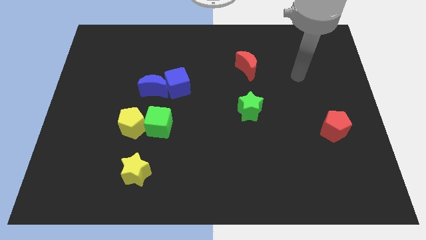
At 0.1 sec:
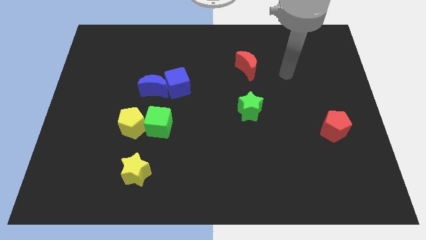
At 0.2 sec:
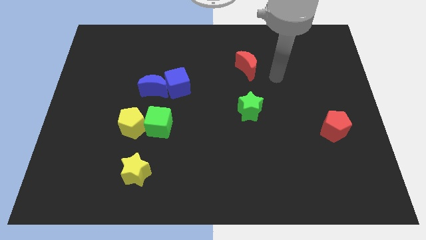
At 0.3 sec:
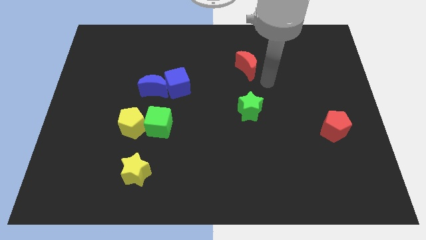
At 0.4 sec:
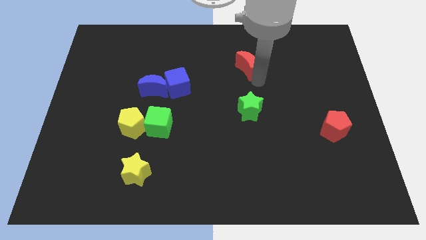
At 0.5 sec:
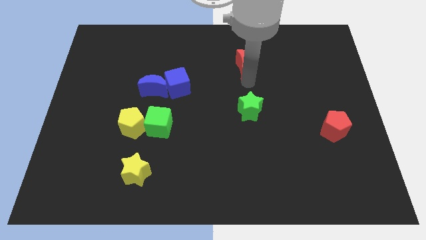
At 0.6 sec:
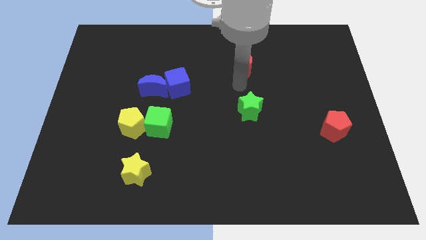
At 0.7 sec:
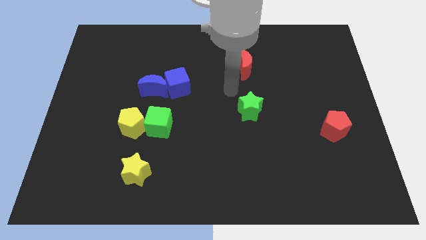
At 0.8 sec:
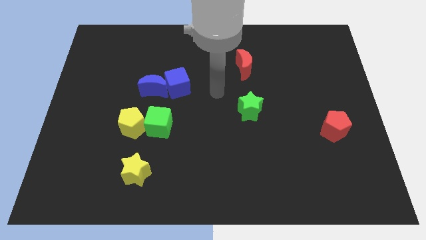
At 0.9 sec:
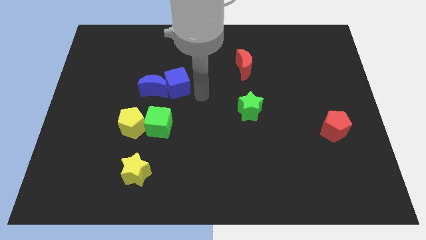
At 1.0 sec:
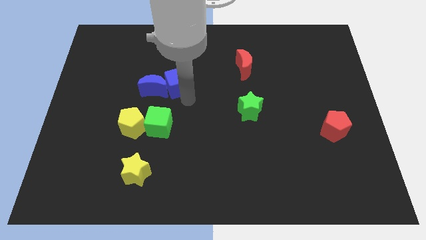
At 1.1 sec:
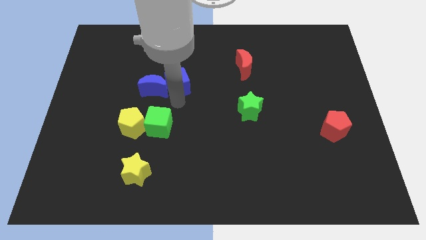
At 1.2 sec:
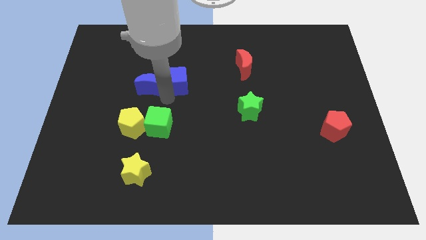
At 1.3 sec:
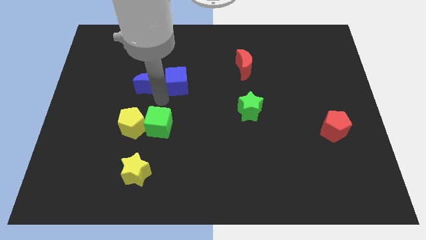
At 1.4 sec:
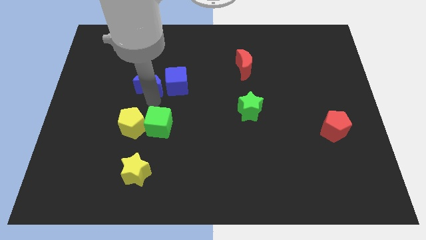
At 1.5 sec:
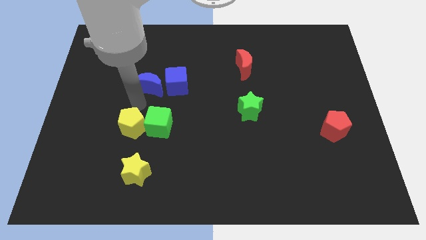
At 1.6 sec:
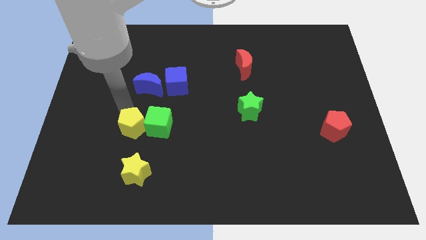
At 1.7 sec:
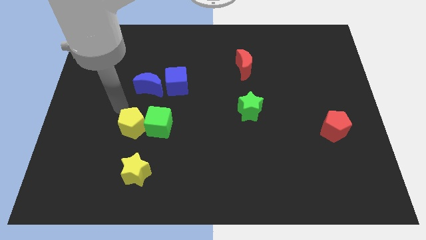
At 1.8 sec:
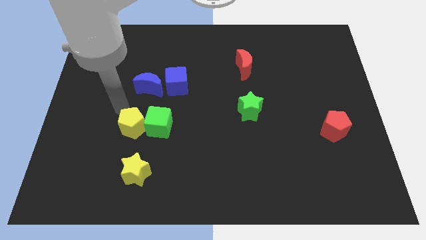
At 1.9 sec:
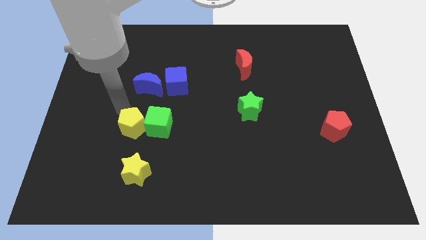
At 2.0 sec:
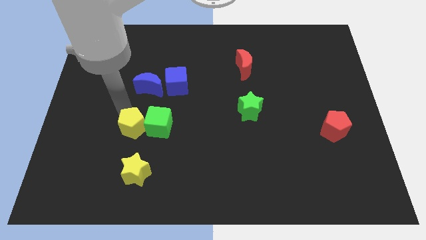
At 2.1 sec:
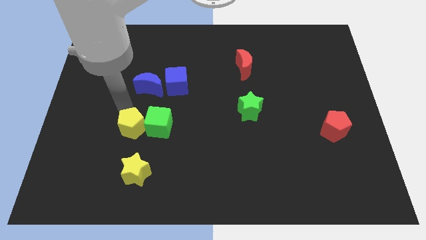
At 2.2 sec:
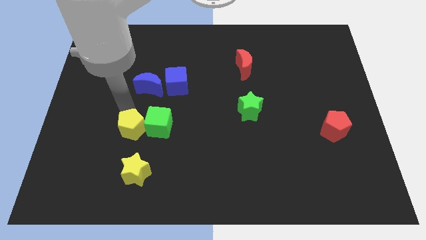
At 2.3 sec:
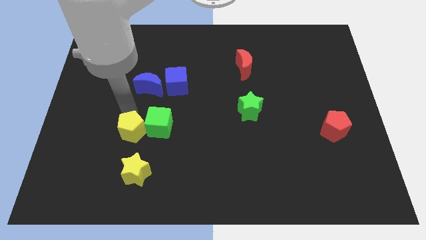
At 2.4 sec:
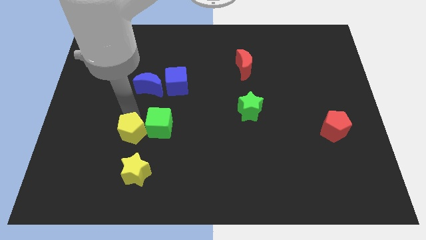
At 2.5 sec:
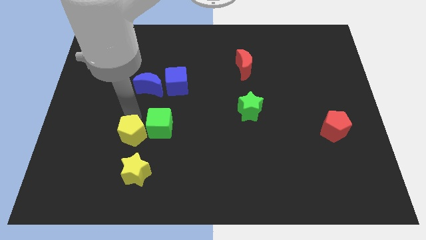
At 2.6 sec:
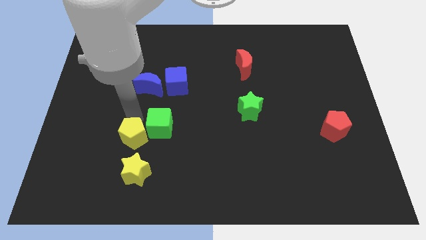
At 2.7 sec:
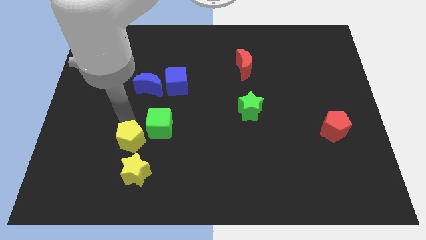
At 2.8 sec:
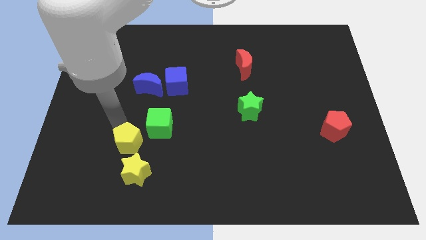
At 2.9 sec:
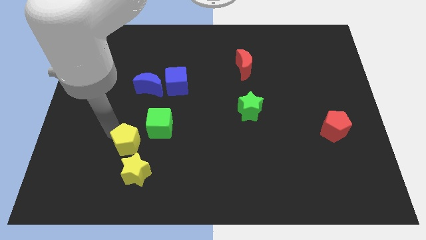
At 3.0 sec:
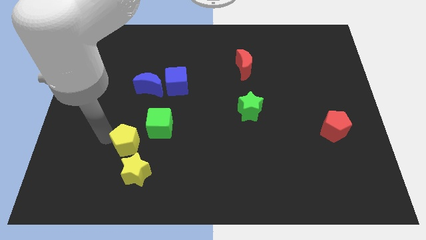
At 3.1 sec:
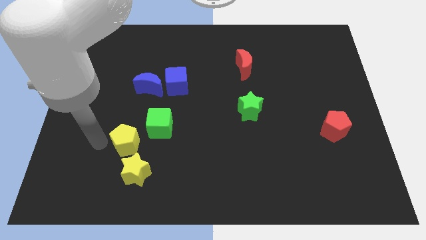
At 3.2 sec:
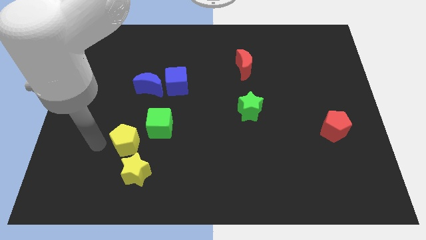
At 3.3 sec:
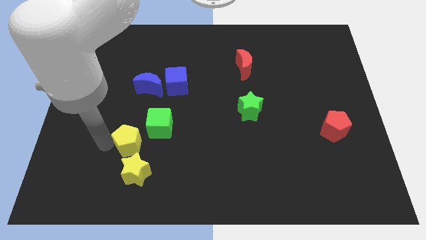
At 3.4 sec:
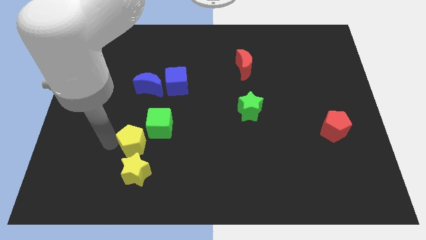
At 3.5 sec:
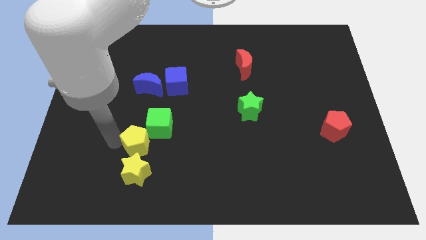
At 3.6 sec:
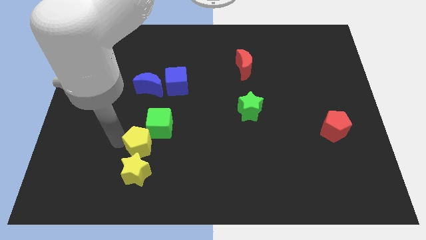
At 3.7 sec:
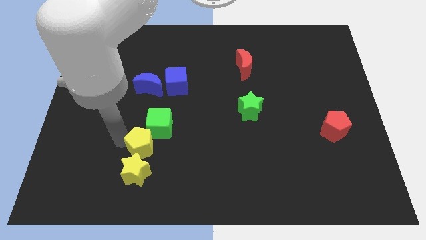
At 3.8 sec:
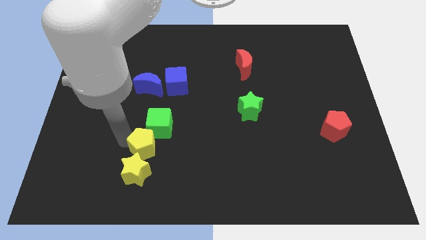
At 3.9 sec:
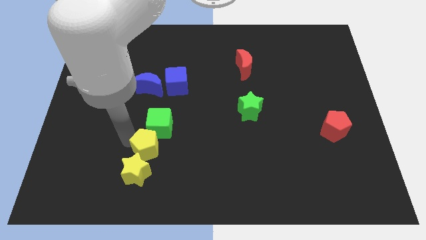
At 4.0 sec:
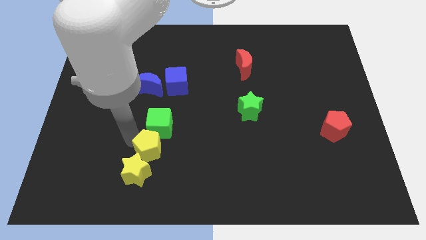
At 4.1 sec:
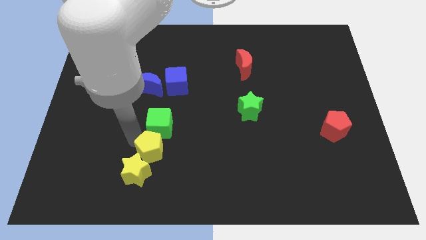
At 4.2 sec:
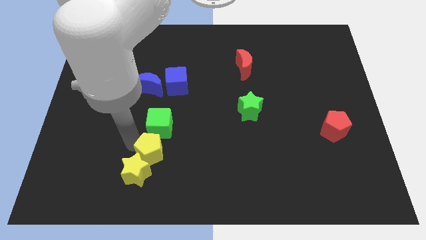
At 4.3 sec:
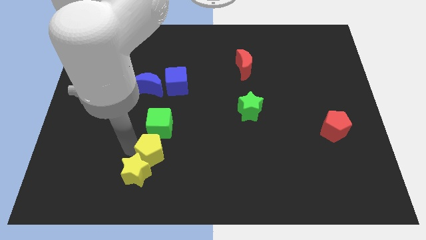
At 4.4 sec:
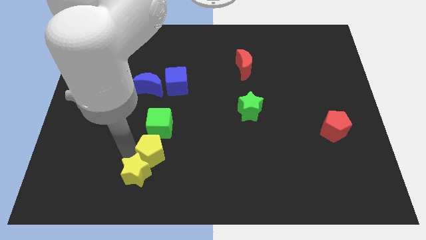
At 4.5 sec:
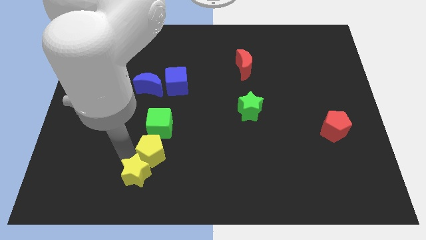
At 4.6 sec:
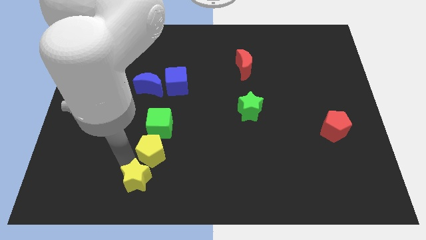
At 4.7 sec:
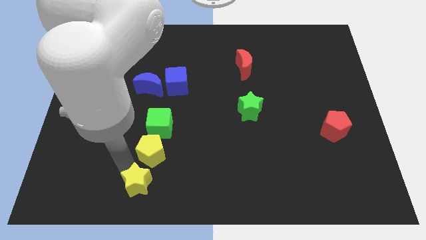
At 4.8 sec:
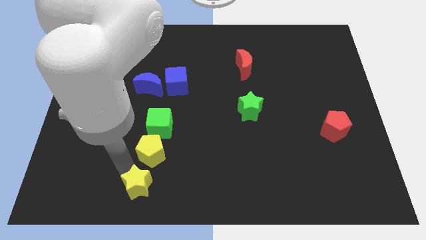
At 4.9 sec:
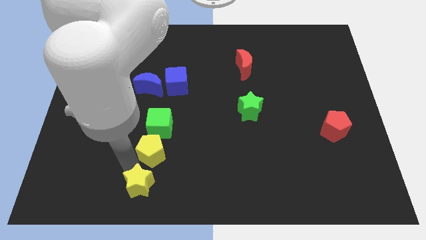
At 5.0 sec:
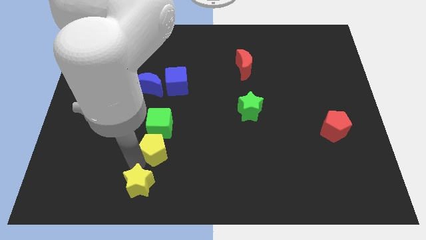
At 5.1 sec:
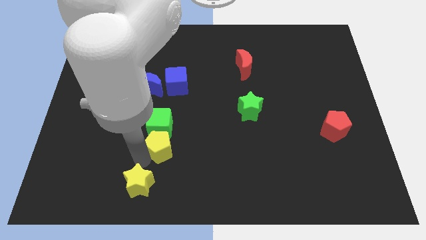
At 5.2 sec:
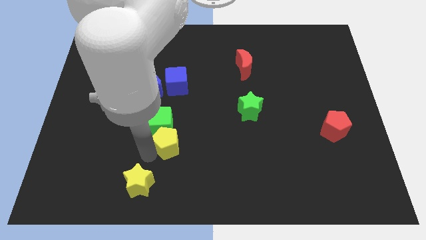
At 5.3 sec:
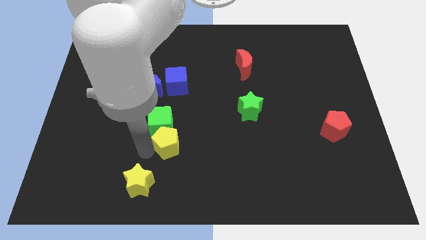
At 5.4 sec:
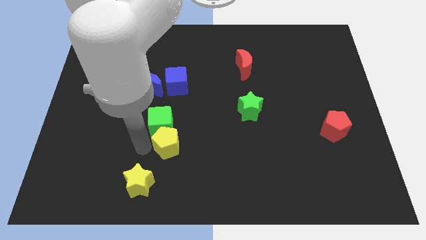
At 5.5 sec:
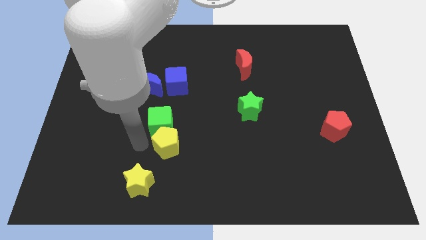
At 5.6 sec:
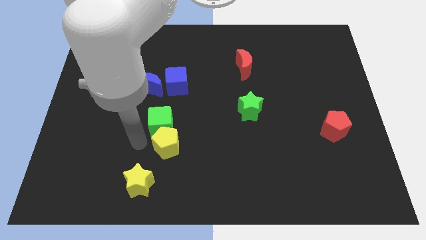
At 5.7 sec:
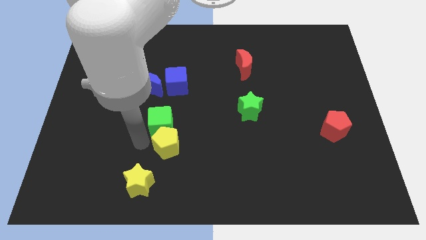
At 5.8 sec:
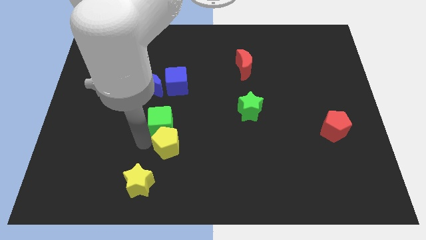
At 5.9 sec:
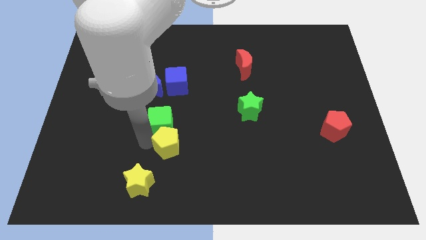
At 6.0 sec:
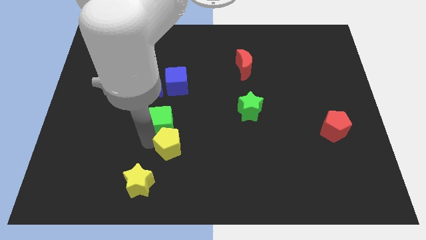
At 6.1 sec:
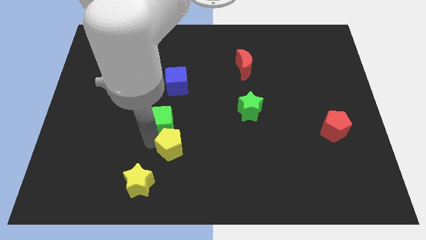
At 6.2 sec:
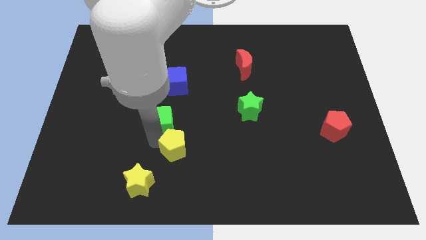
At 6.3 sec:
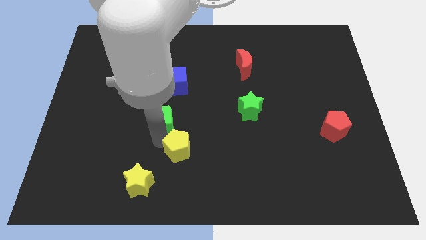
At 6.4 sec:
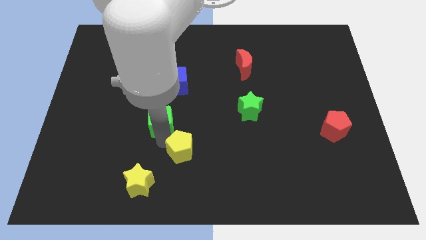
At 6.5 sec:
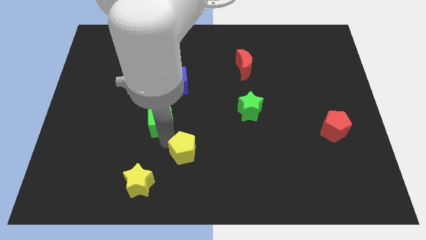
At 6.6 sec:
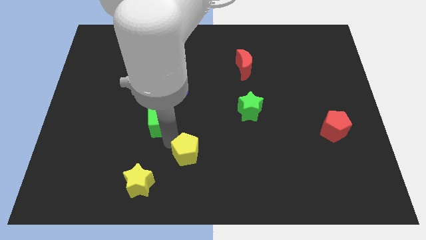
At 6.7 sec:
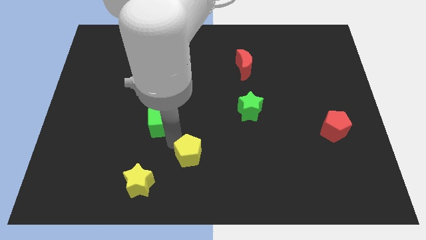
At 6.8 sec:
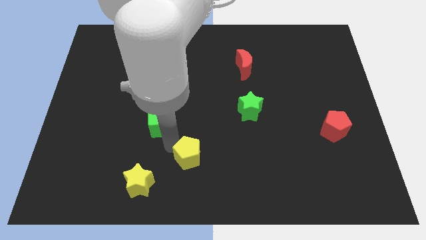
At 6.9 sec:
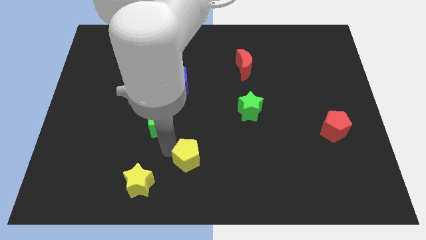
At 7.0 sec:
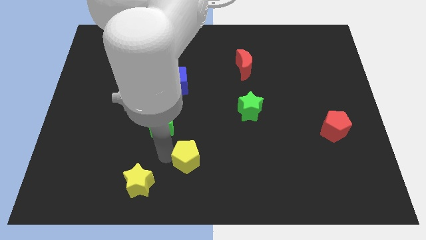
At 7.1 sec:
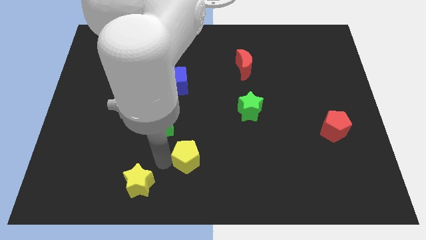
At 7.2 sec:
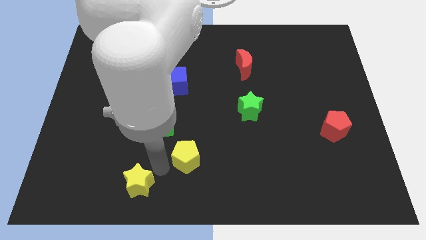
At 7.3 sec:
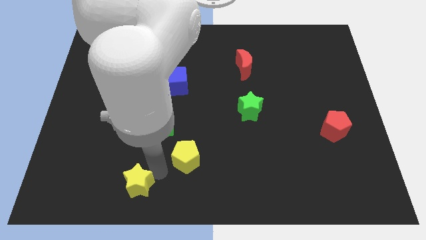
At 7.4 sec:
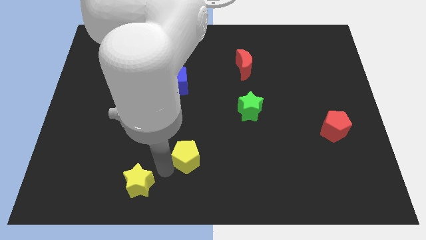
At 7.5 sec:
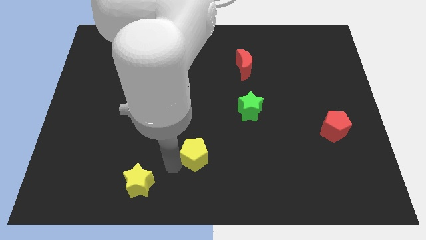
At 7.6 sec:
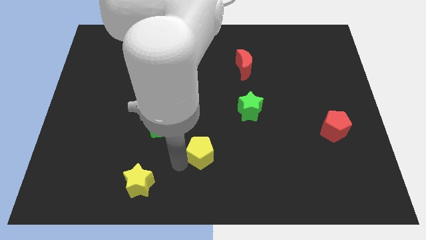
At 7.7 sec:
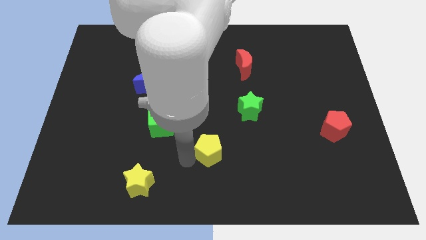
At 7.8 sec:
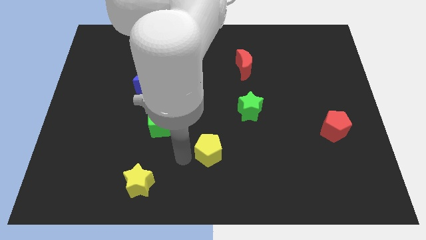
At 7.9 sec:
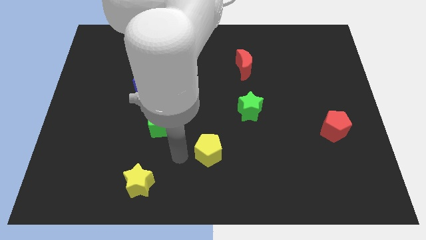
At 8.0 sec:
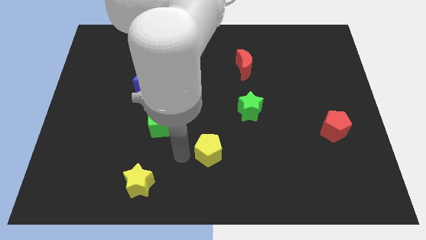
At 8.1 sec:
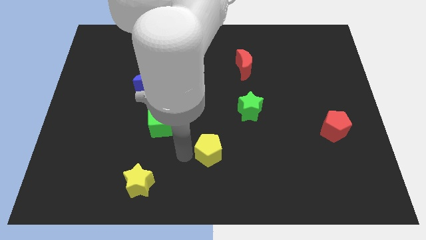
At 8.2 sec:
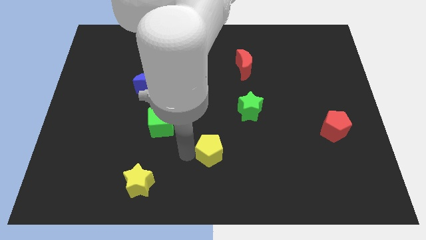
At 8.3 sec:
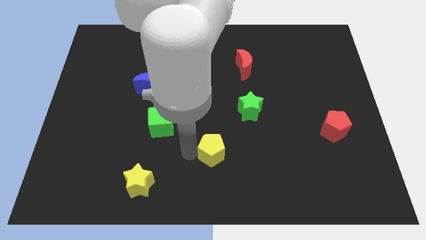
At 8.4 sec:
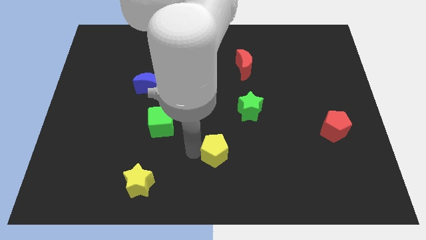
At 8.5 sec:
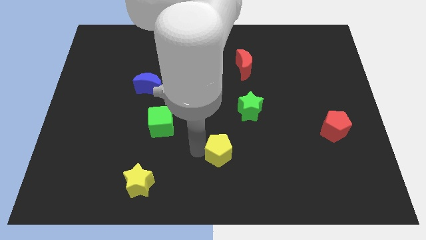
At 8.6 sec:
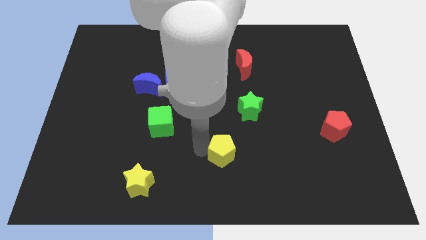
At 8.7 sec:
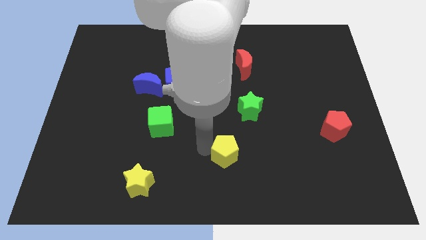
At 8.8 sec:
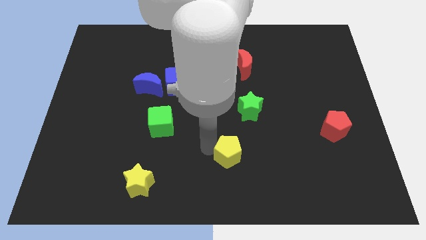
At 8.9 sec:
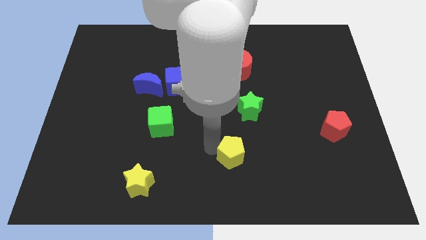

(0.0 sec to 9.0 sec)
slide the yellow pentagon below the green star
